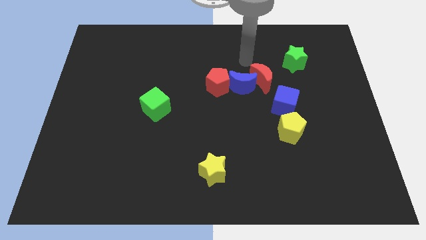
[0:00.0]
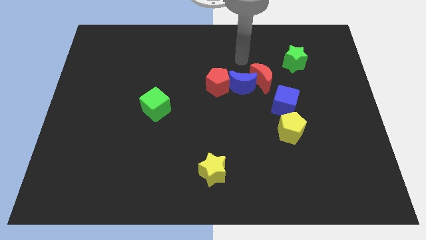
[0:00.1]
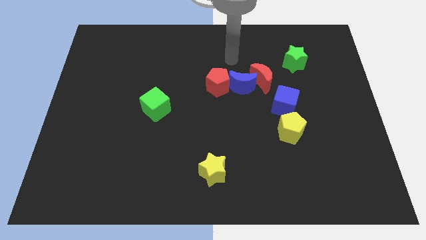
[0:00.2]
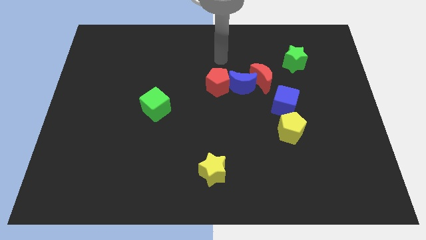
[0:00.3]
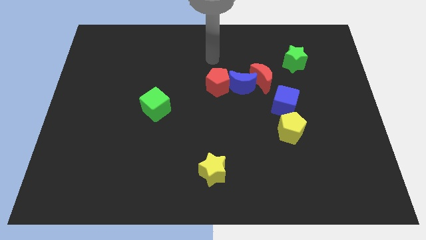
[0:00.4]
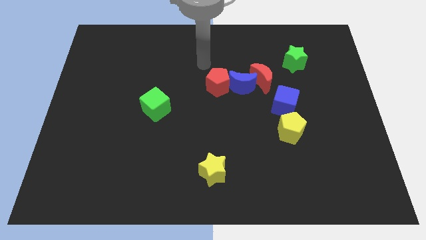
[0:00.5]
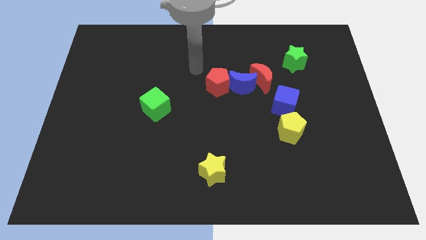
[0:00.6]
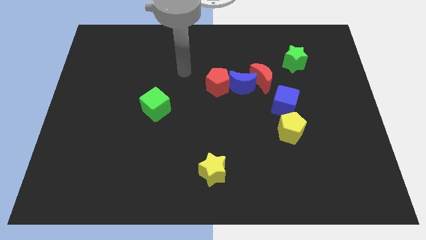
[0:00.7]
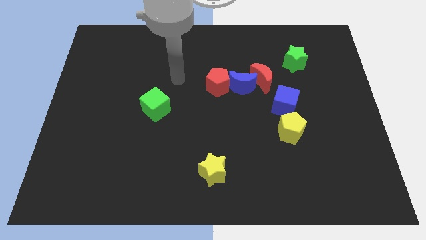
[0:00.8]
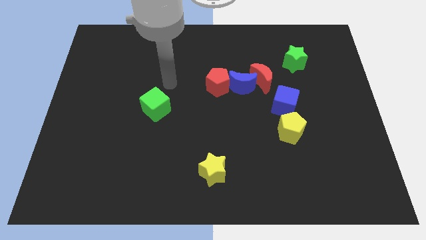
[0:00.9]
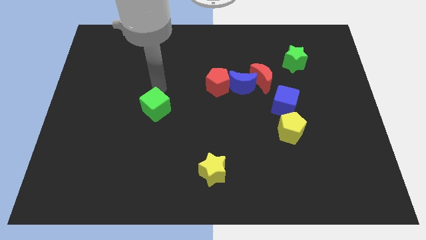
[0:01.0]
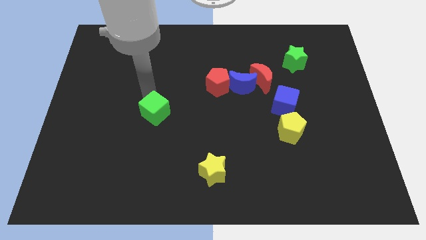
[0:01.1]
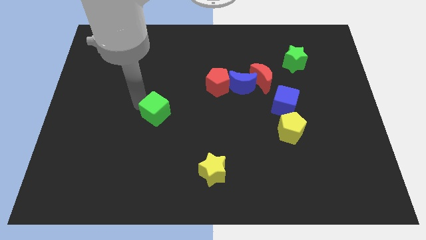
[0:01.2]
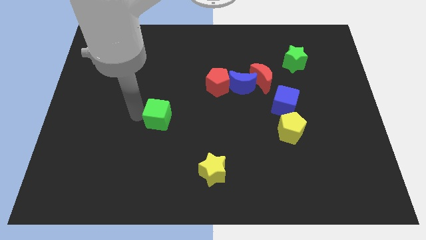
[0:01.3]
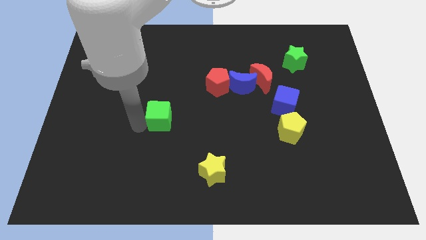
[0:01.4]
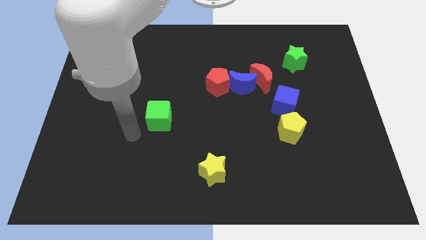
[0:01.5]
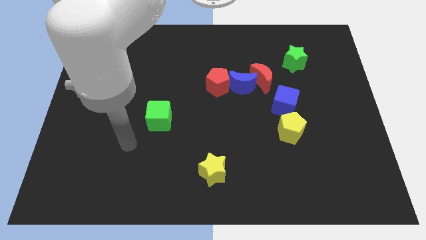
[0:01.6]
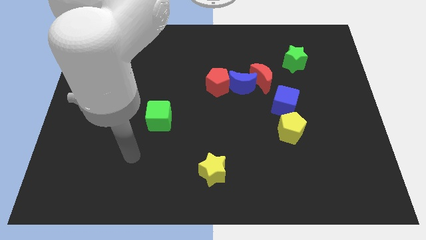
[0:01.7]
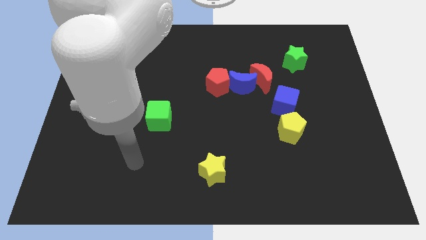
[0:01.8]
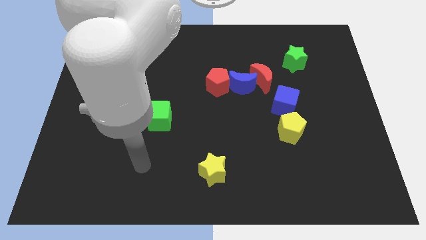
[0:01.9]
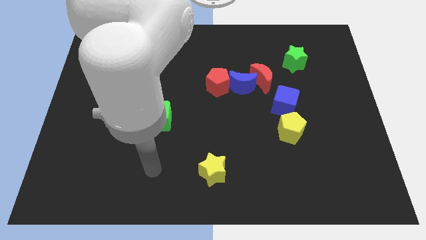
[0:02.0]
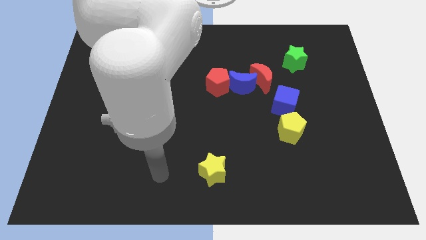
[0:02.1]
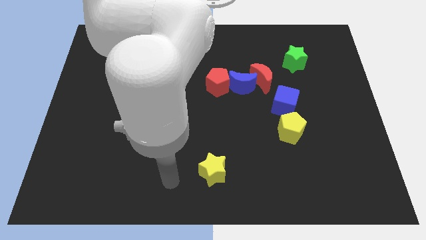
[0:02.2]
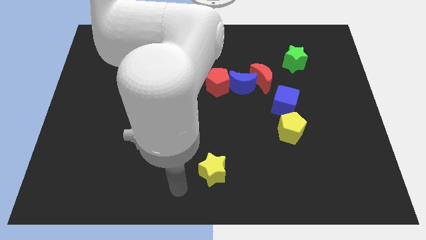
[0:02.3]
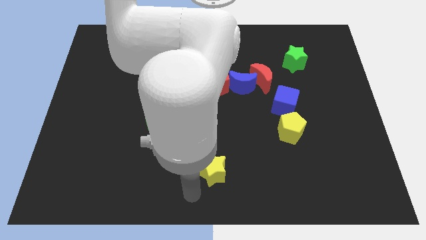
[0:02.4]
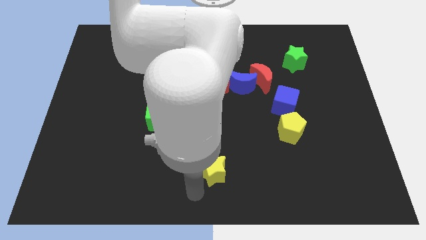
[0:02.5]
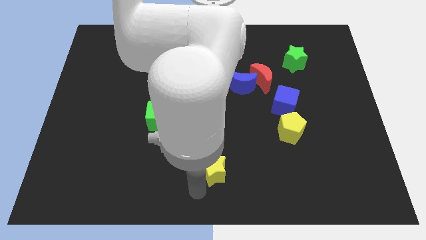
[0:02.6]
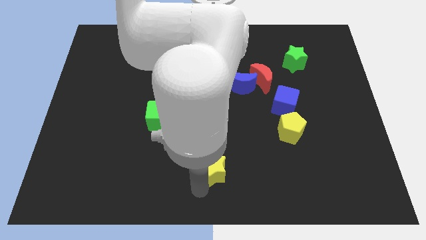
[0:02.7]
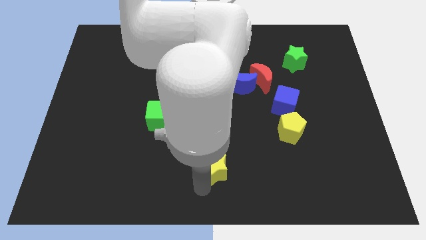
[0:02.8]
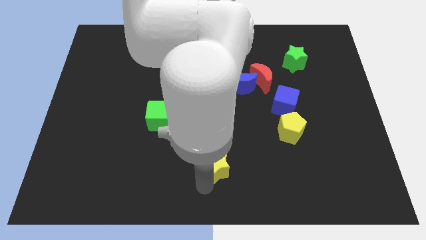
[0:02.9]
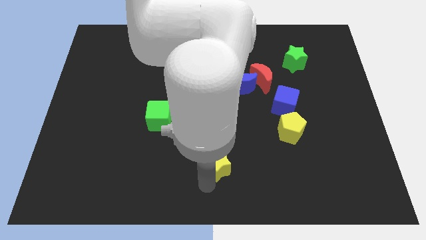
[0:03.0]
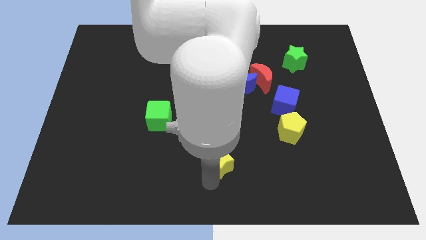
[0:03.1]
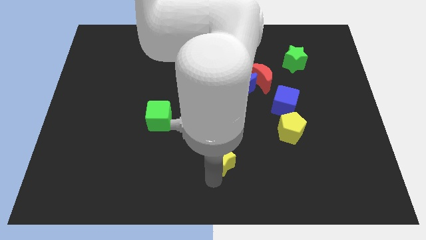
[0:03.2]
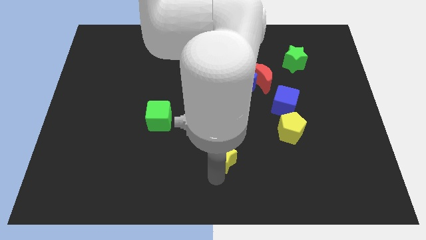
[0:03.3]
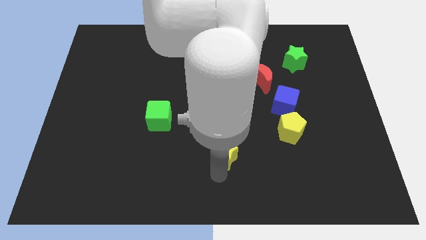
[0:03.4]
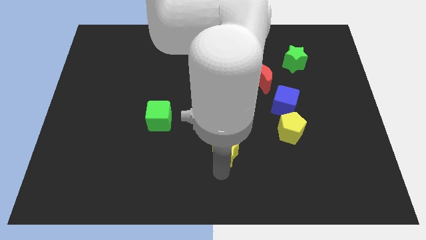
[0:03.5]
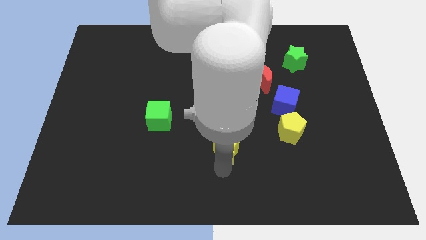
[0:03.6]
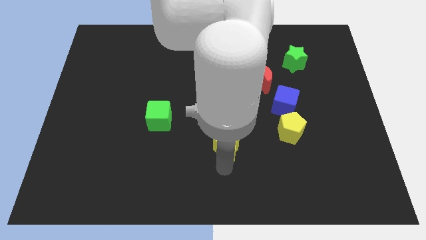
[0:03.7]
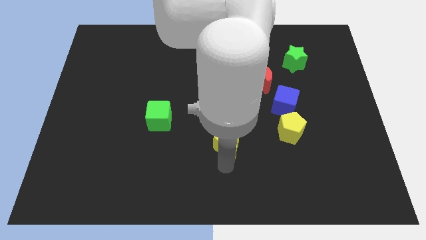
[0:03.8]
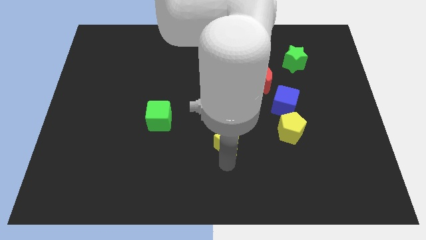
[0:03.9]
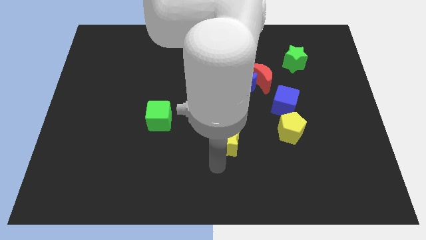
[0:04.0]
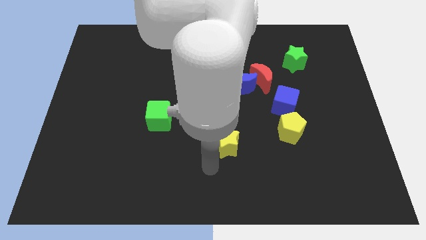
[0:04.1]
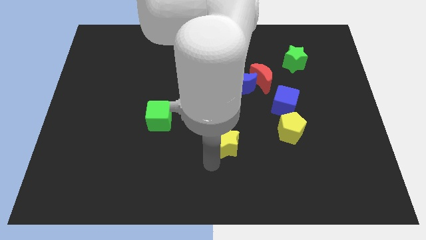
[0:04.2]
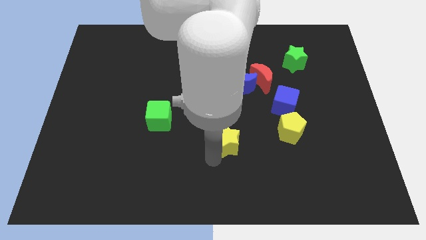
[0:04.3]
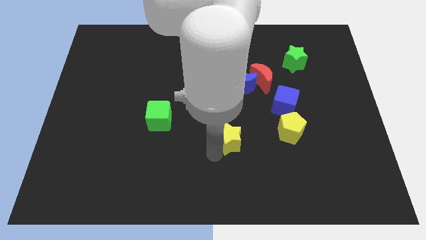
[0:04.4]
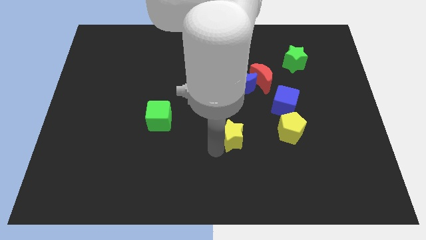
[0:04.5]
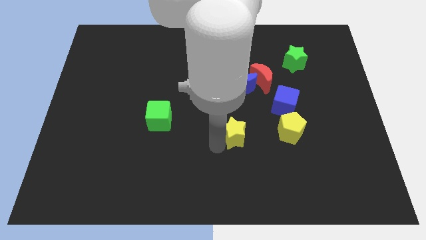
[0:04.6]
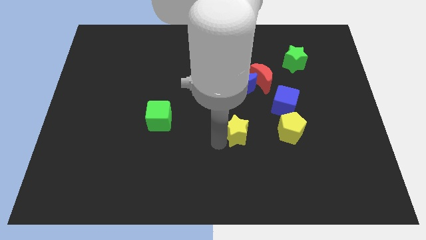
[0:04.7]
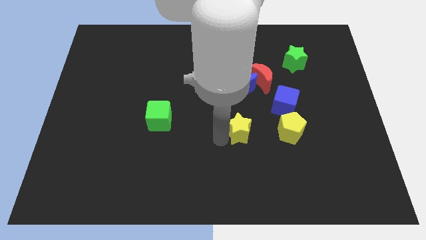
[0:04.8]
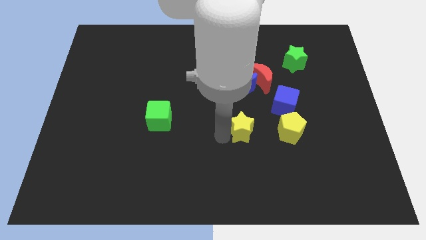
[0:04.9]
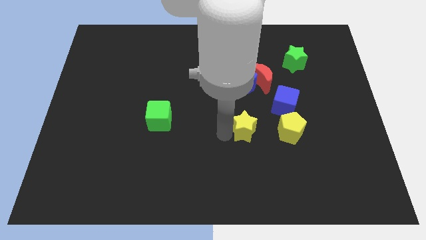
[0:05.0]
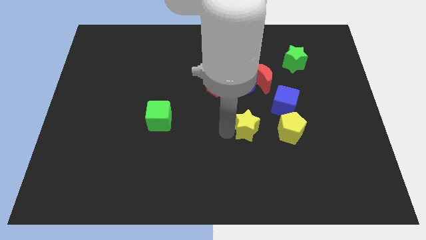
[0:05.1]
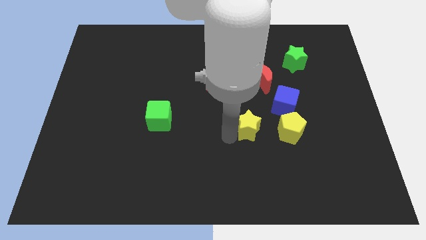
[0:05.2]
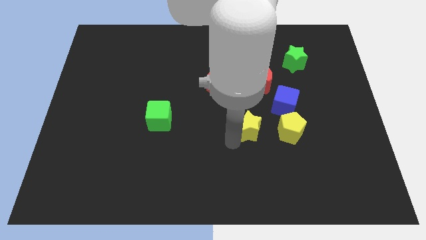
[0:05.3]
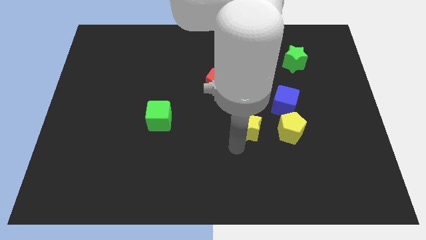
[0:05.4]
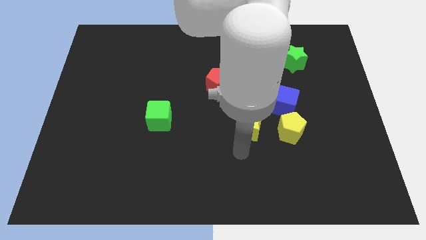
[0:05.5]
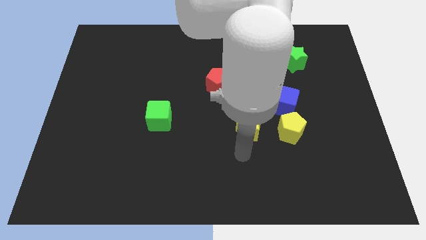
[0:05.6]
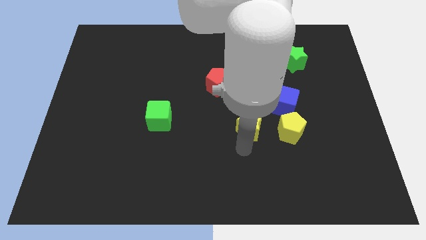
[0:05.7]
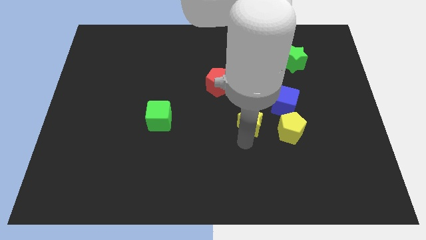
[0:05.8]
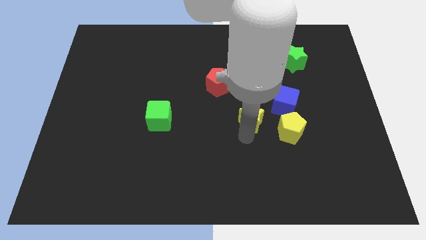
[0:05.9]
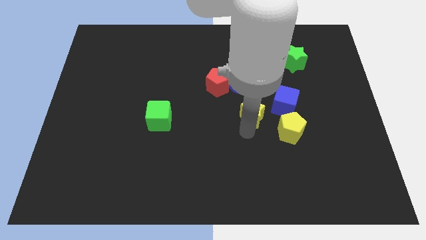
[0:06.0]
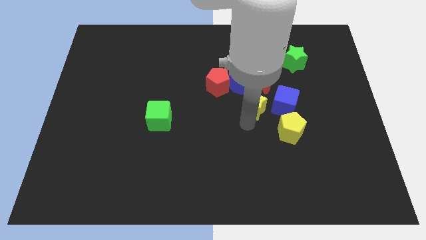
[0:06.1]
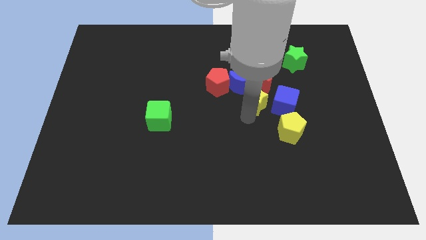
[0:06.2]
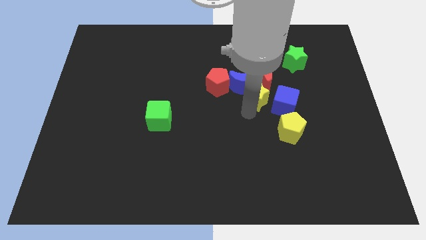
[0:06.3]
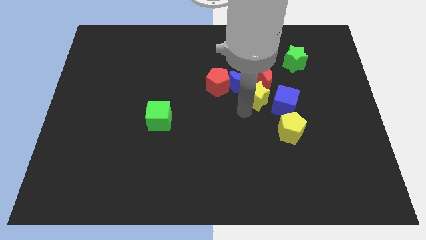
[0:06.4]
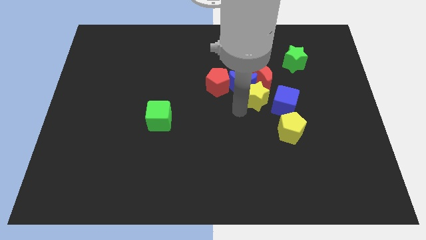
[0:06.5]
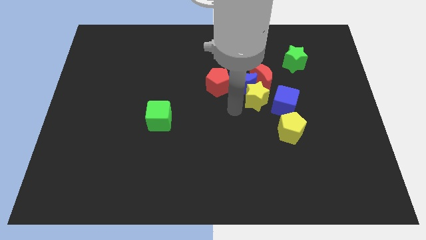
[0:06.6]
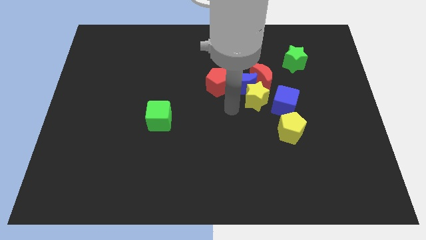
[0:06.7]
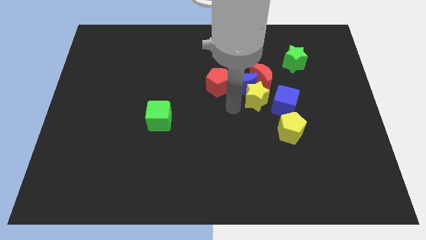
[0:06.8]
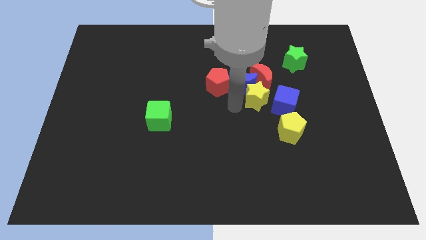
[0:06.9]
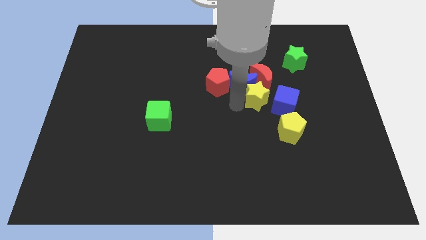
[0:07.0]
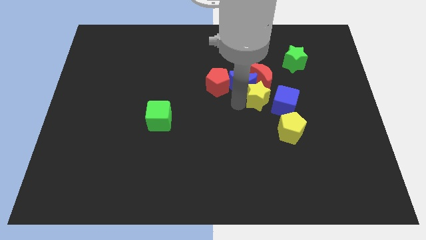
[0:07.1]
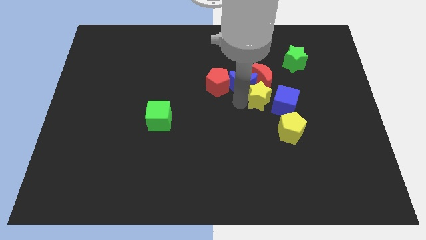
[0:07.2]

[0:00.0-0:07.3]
move the yellow star upwards and right

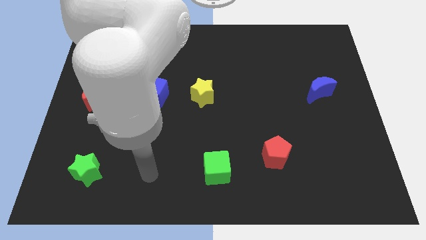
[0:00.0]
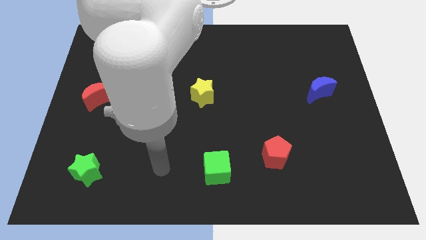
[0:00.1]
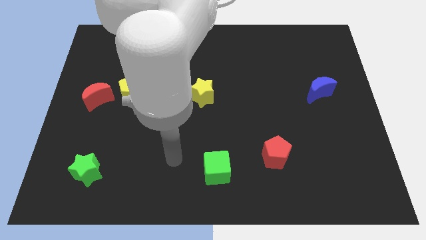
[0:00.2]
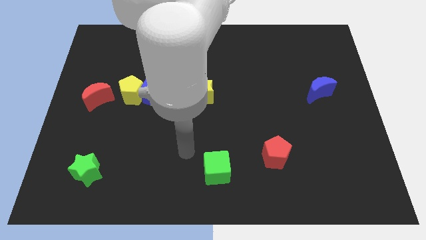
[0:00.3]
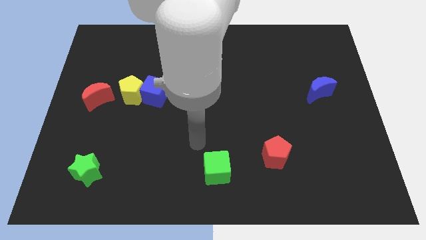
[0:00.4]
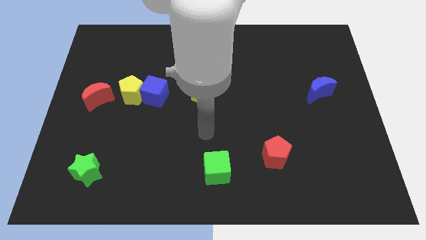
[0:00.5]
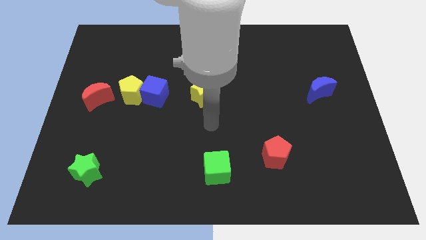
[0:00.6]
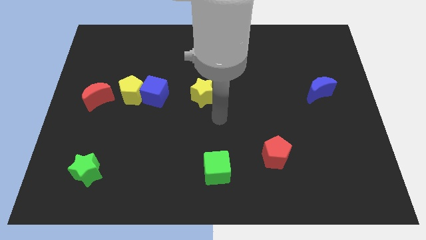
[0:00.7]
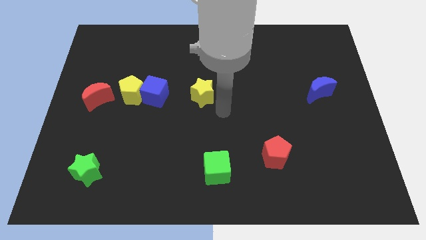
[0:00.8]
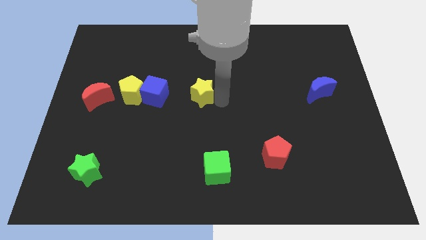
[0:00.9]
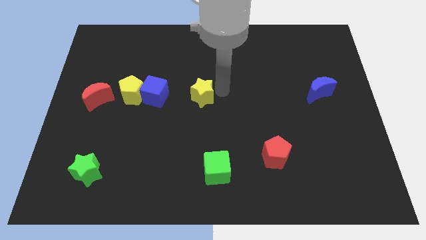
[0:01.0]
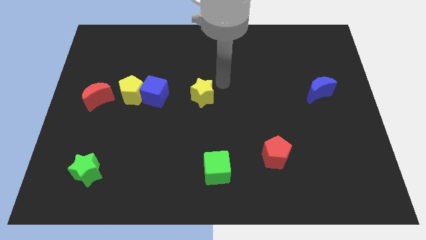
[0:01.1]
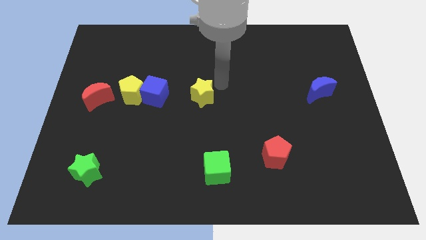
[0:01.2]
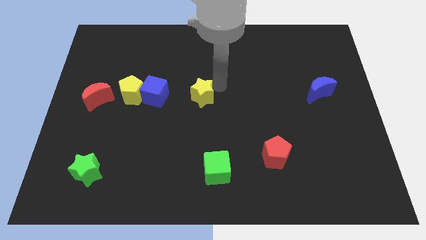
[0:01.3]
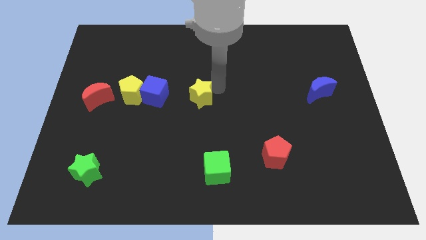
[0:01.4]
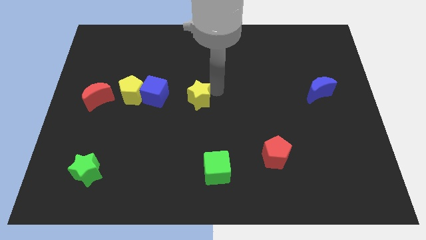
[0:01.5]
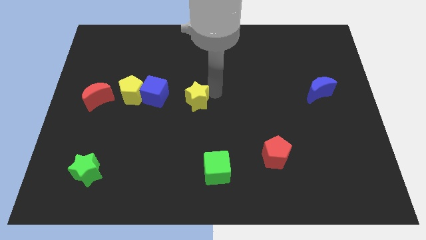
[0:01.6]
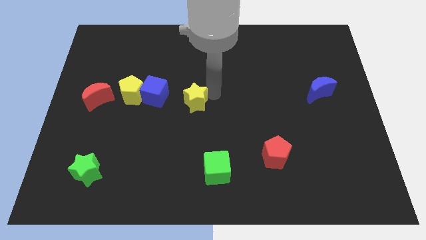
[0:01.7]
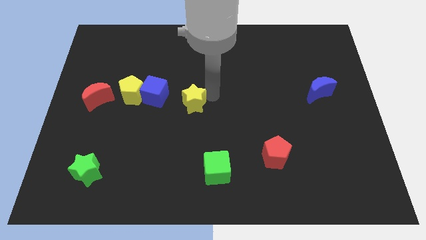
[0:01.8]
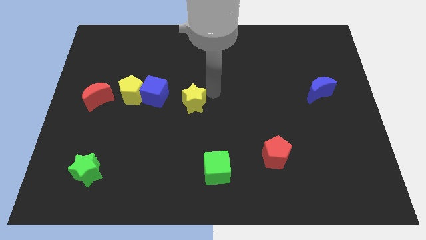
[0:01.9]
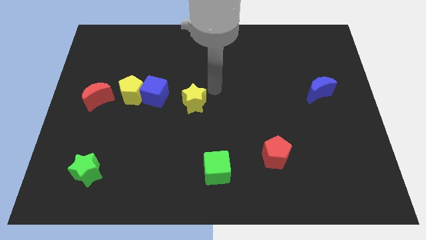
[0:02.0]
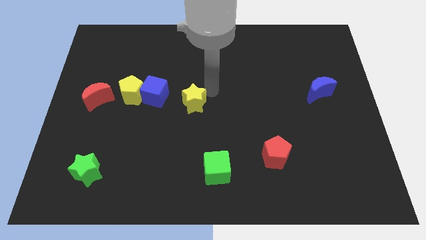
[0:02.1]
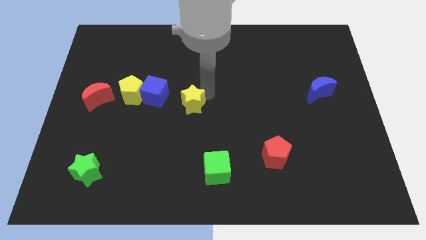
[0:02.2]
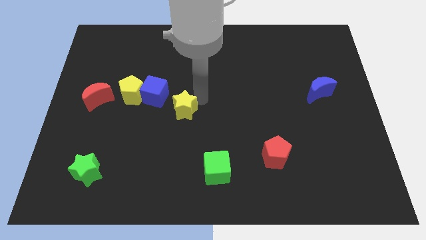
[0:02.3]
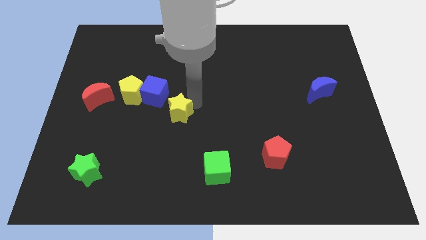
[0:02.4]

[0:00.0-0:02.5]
slide the yellow star a little diagonally downwards and to the left
